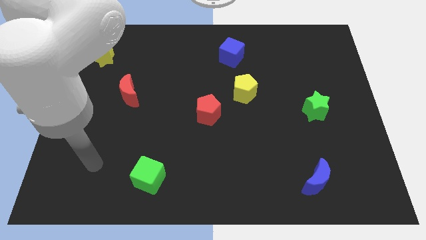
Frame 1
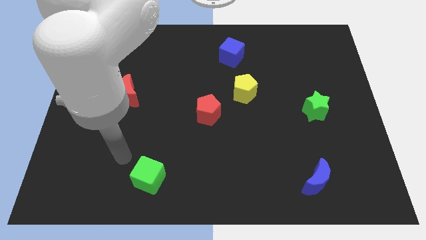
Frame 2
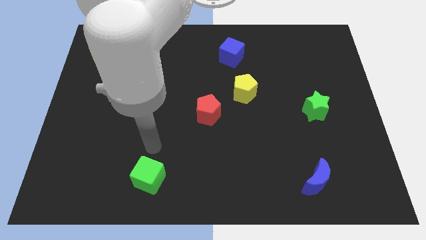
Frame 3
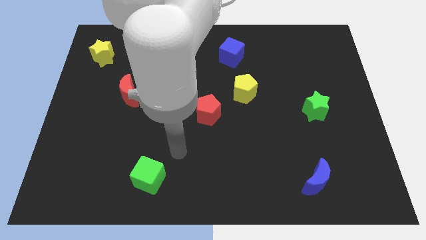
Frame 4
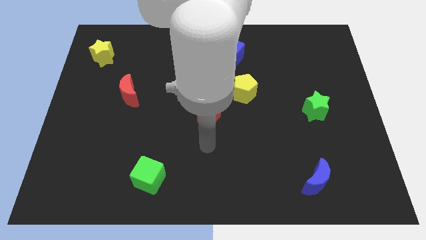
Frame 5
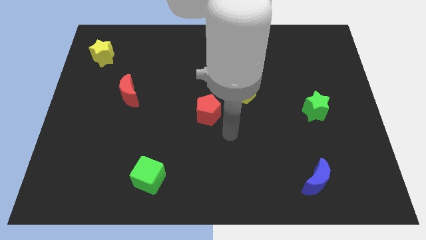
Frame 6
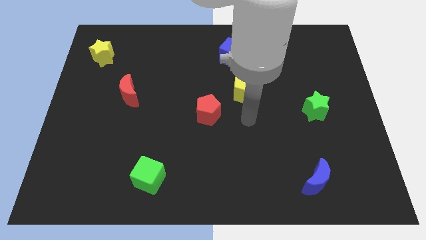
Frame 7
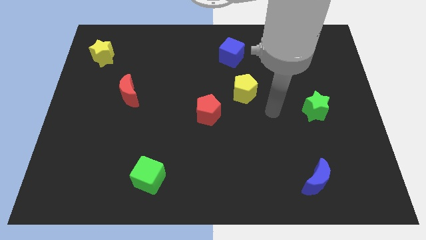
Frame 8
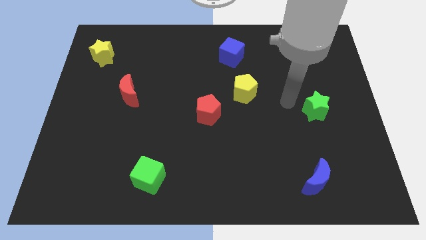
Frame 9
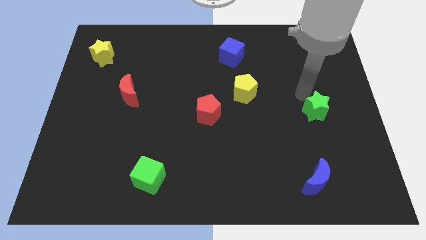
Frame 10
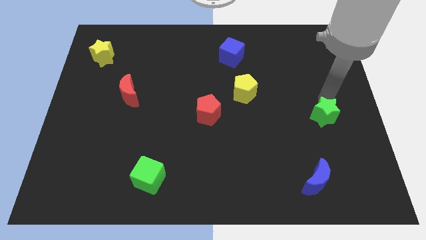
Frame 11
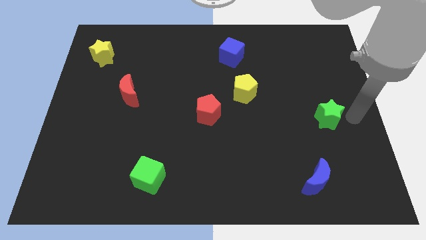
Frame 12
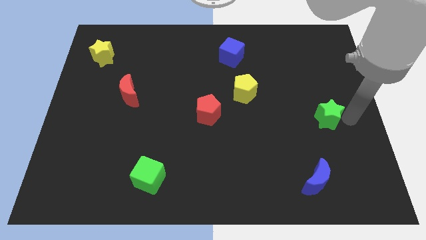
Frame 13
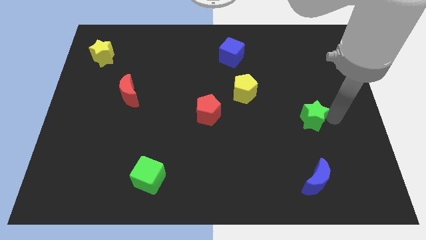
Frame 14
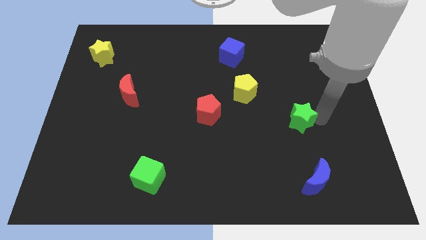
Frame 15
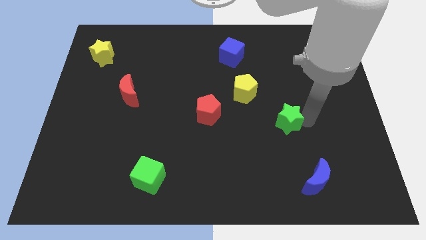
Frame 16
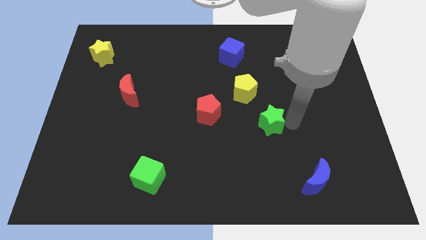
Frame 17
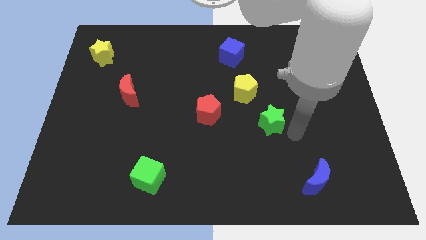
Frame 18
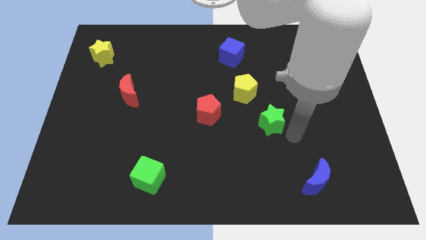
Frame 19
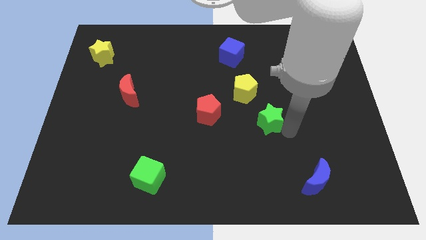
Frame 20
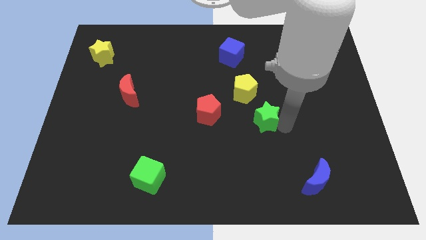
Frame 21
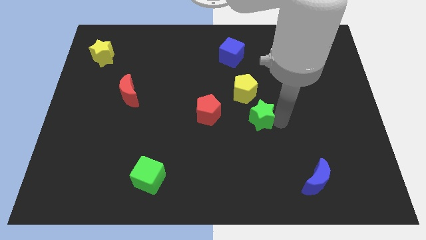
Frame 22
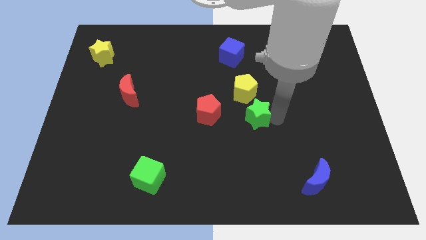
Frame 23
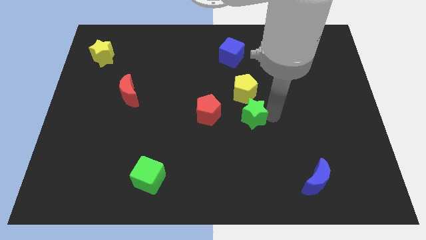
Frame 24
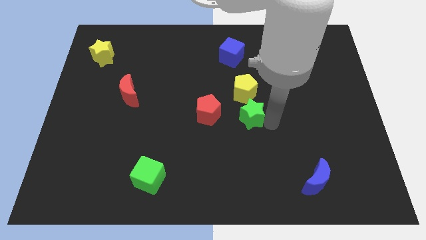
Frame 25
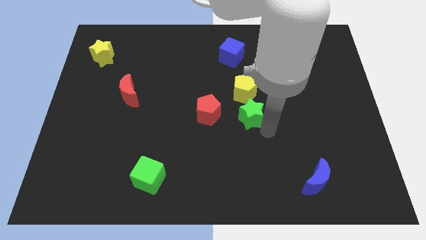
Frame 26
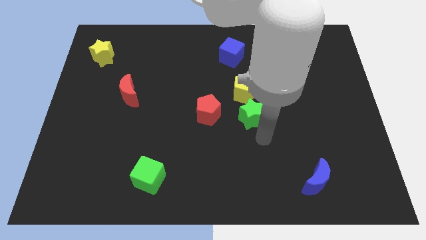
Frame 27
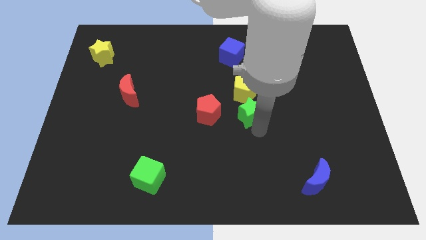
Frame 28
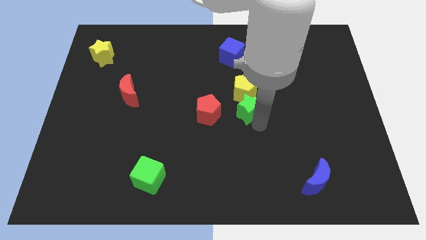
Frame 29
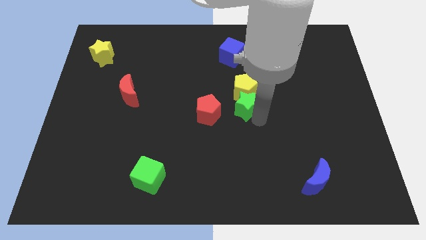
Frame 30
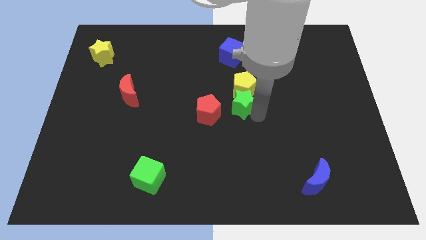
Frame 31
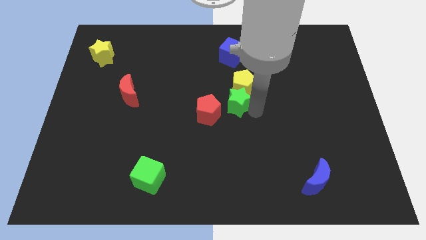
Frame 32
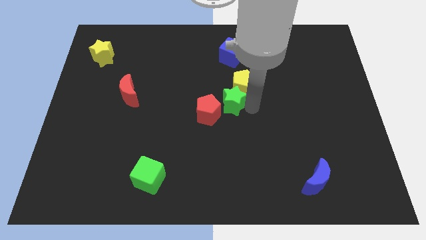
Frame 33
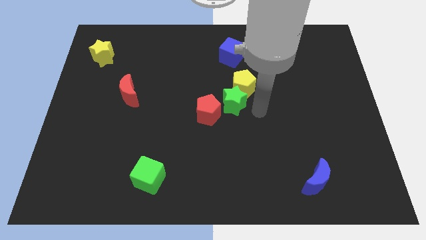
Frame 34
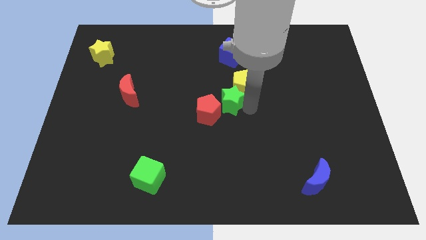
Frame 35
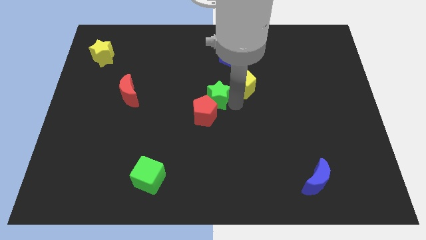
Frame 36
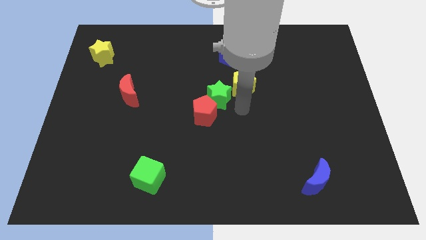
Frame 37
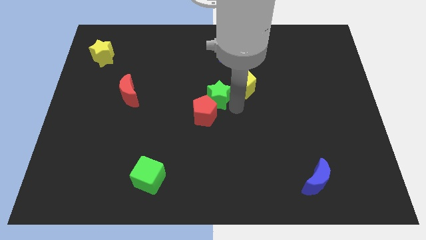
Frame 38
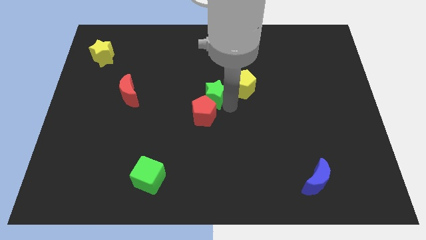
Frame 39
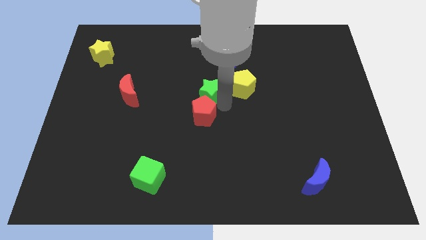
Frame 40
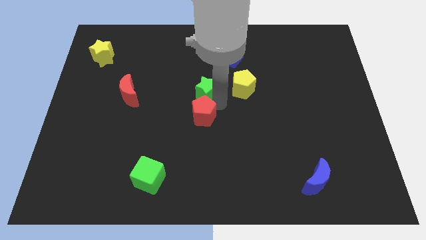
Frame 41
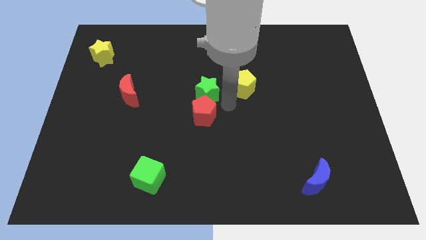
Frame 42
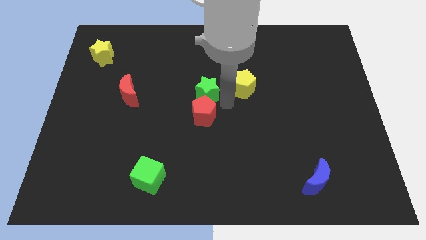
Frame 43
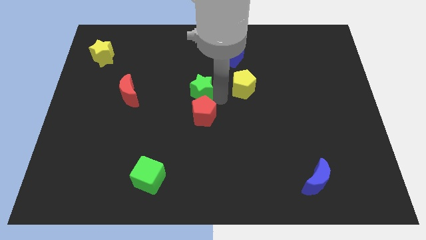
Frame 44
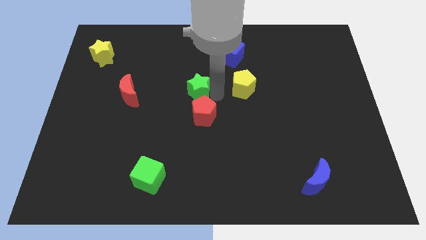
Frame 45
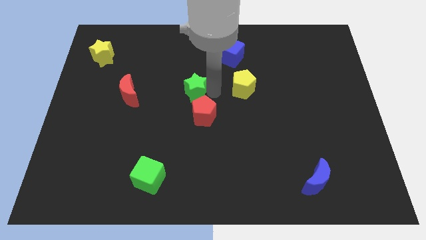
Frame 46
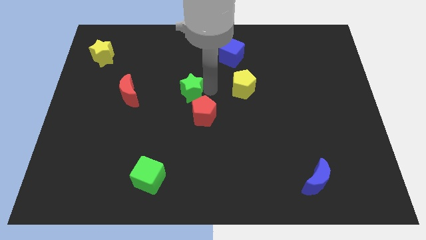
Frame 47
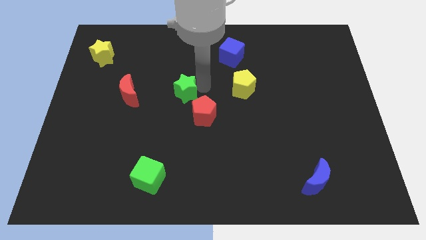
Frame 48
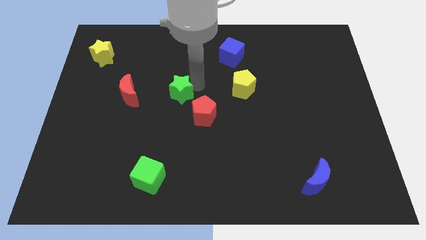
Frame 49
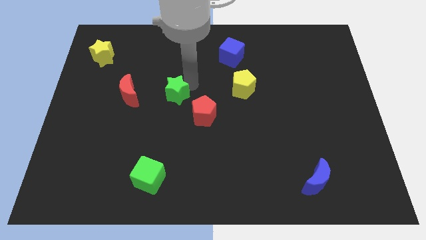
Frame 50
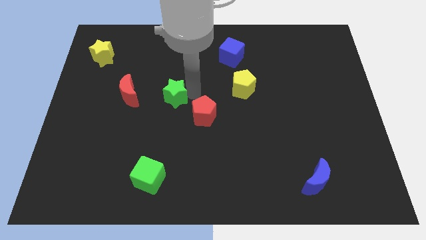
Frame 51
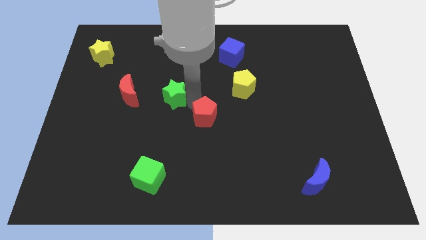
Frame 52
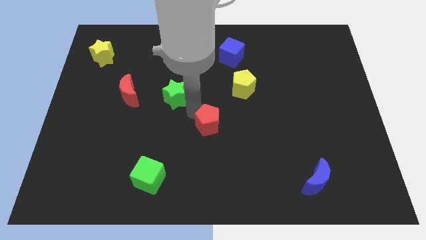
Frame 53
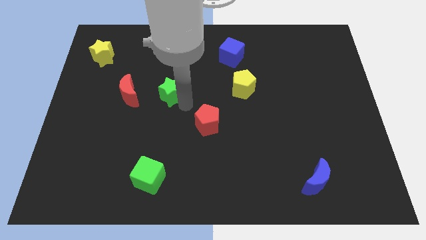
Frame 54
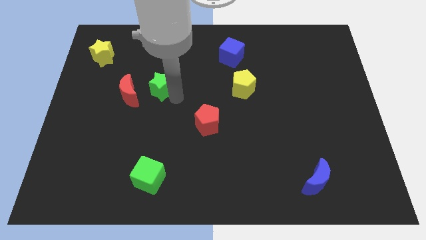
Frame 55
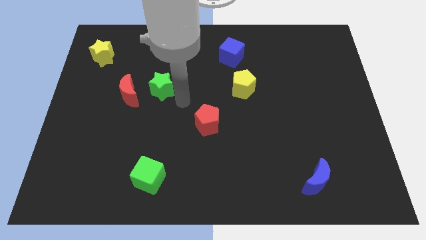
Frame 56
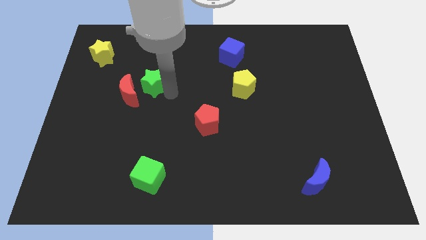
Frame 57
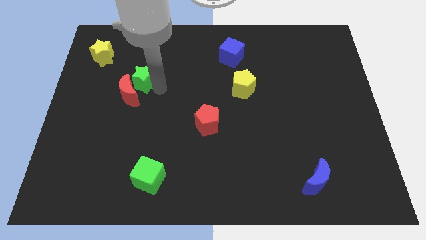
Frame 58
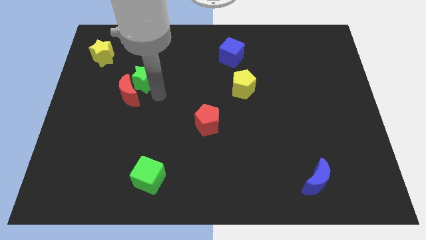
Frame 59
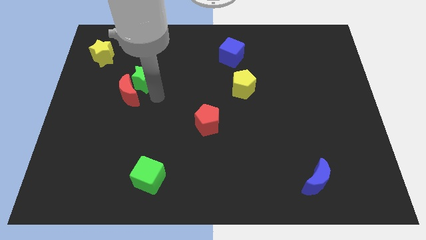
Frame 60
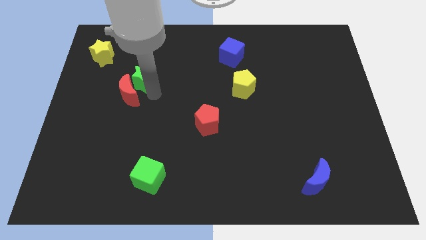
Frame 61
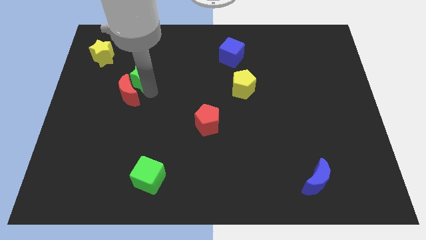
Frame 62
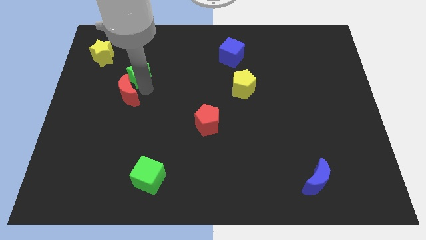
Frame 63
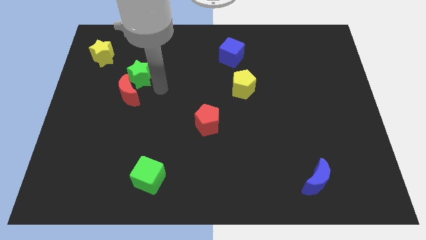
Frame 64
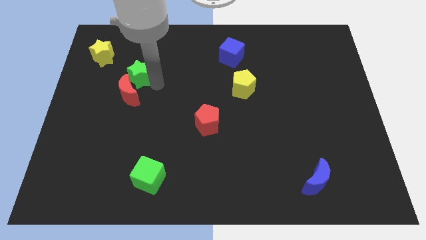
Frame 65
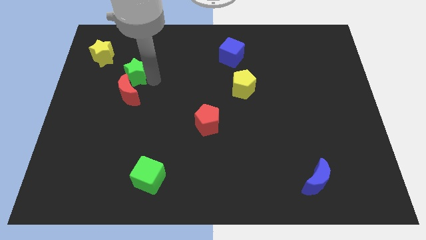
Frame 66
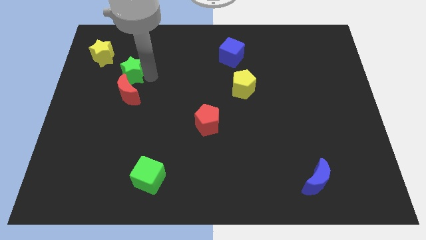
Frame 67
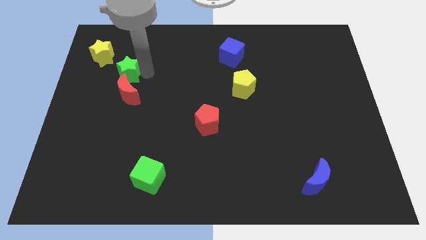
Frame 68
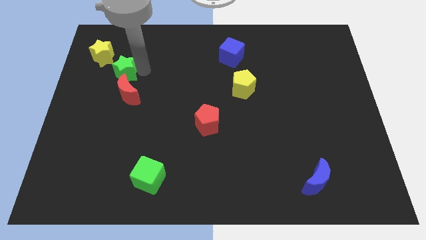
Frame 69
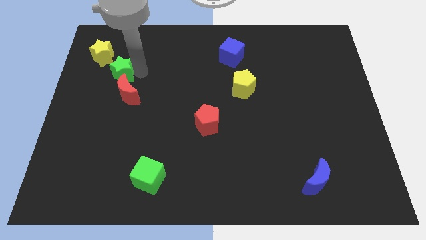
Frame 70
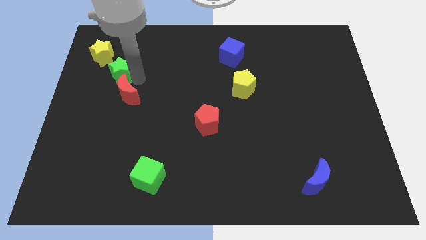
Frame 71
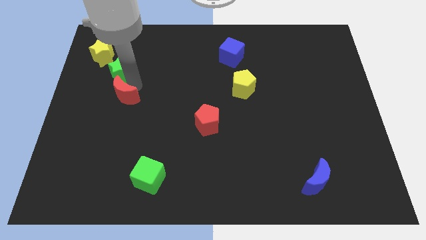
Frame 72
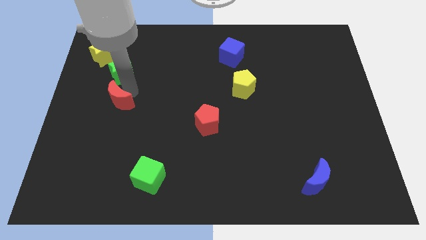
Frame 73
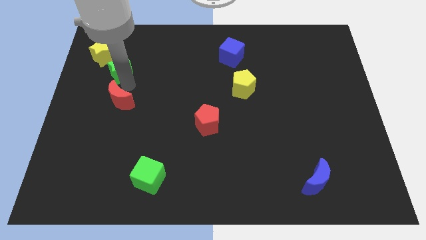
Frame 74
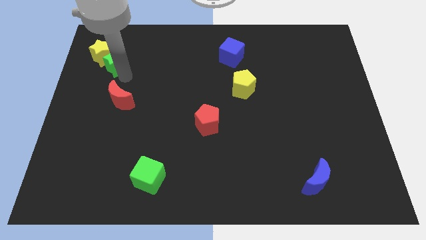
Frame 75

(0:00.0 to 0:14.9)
push the green star next to the yellow star
